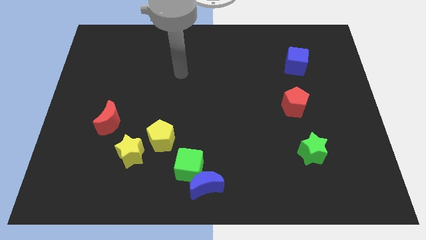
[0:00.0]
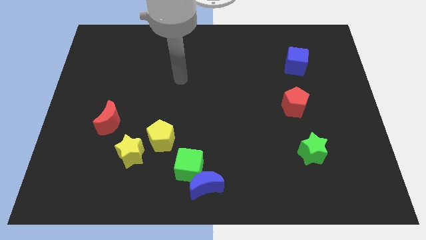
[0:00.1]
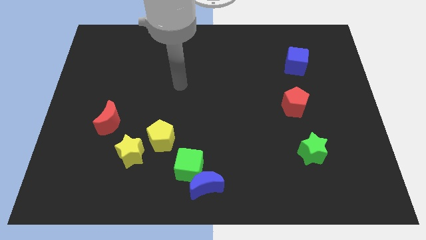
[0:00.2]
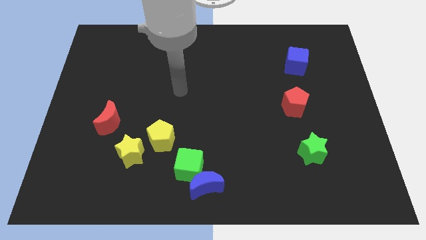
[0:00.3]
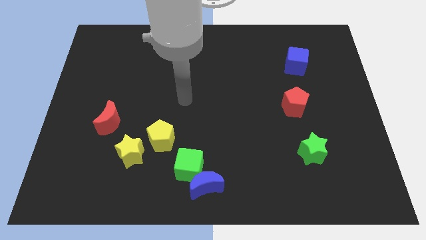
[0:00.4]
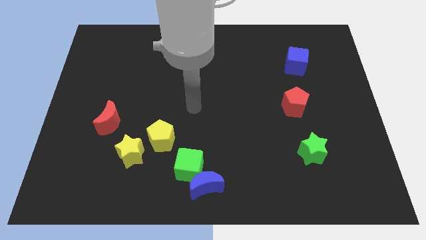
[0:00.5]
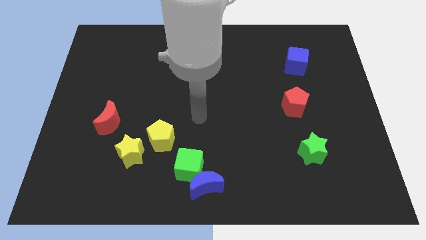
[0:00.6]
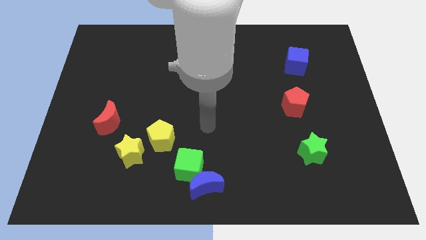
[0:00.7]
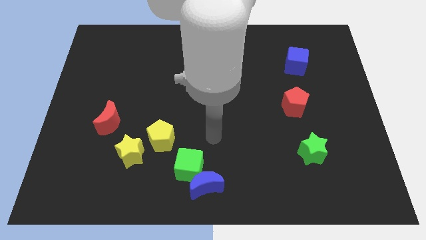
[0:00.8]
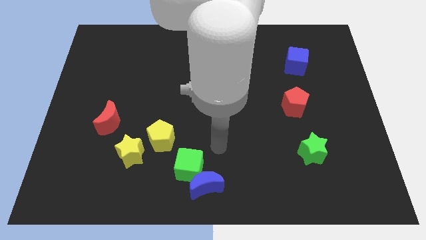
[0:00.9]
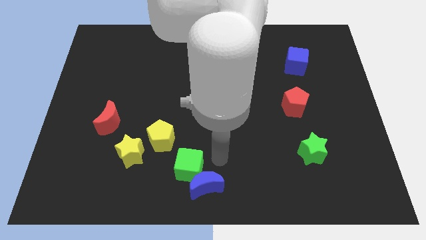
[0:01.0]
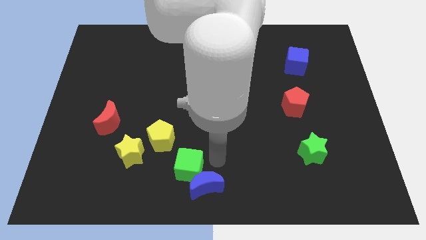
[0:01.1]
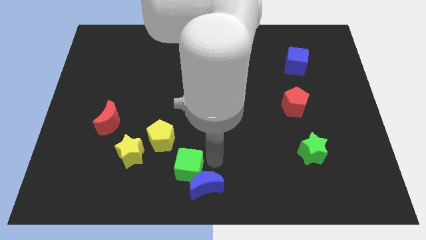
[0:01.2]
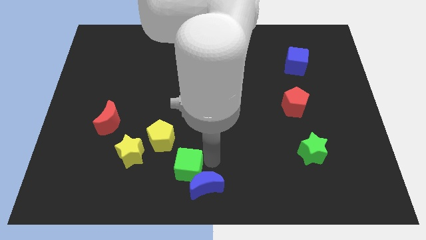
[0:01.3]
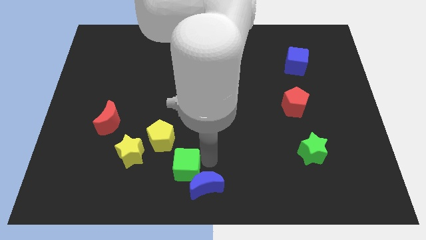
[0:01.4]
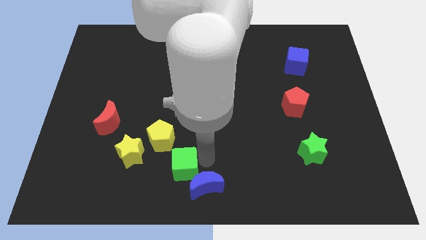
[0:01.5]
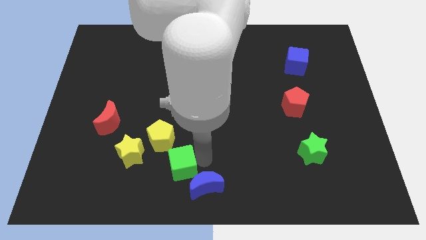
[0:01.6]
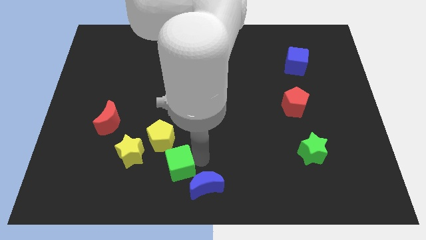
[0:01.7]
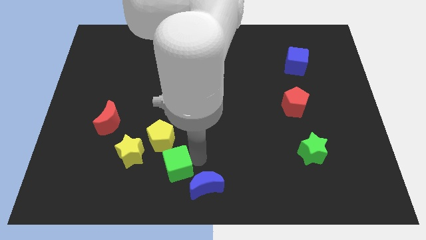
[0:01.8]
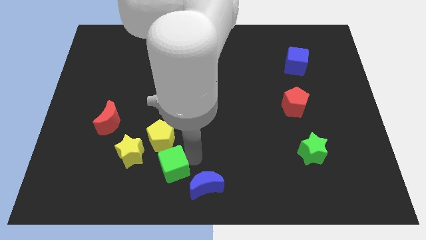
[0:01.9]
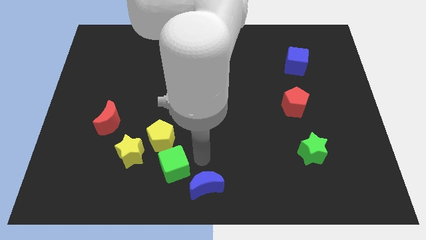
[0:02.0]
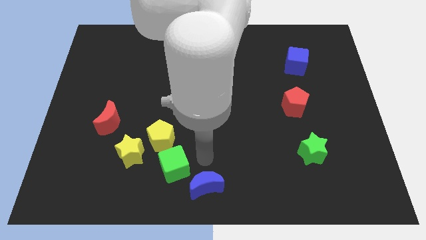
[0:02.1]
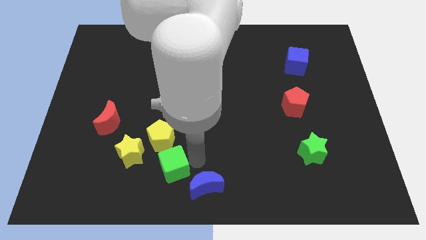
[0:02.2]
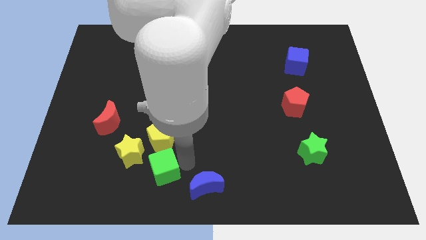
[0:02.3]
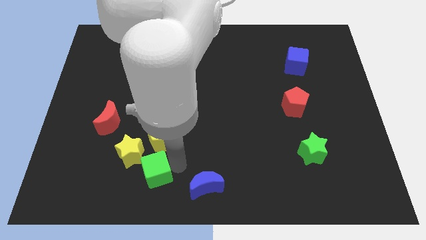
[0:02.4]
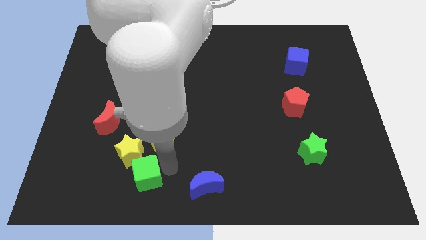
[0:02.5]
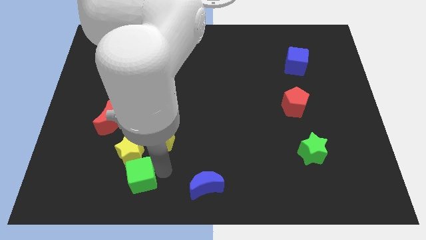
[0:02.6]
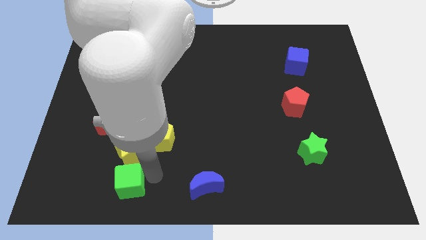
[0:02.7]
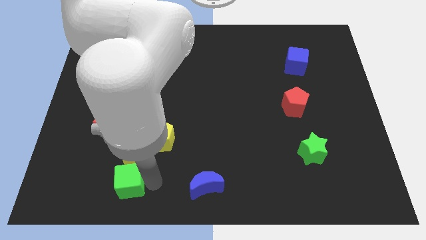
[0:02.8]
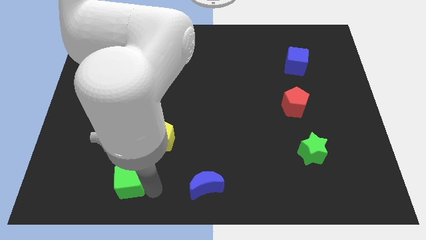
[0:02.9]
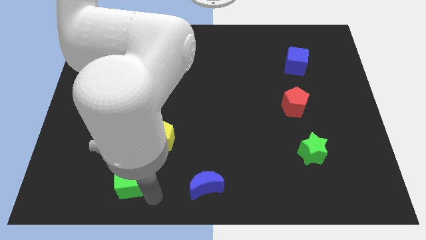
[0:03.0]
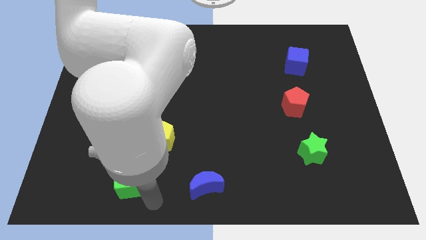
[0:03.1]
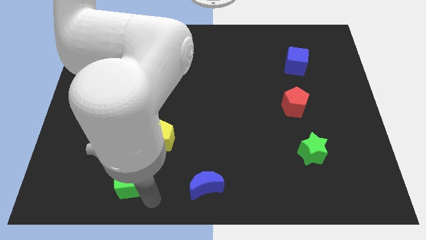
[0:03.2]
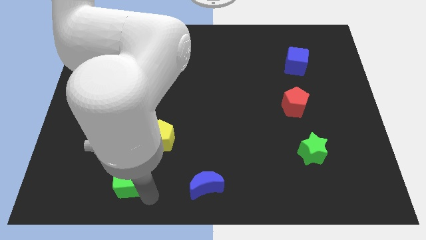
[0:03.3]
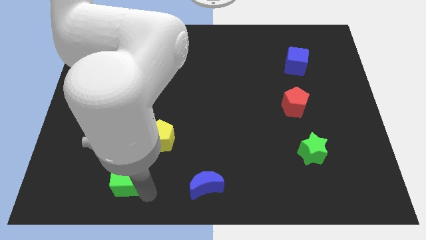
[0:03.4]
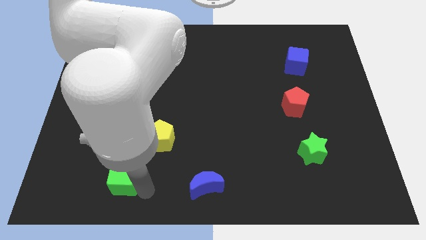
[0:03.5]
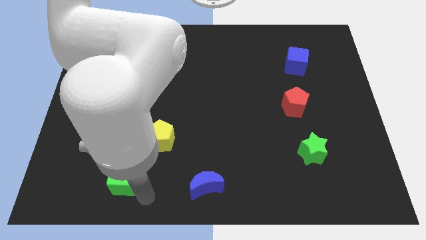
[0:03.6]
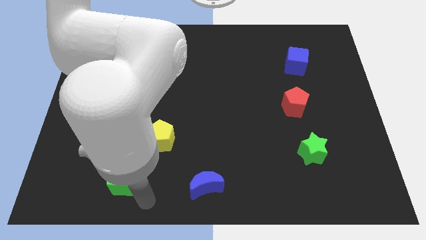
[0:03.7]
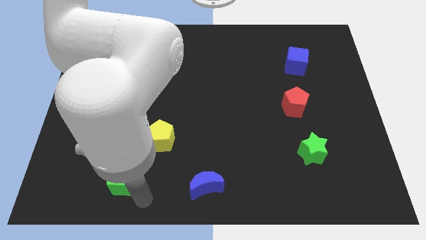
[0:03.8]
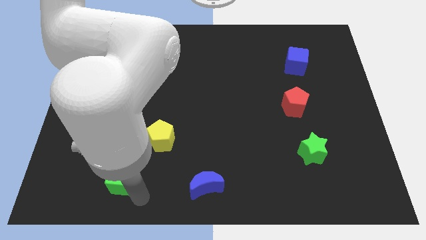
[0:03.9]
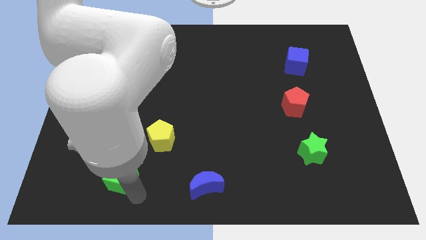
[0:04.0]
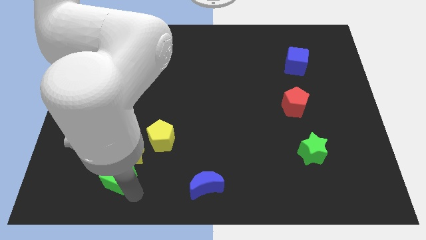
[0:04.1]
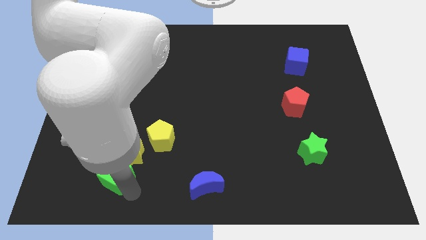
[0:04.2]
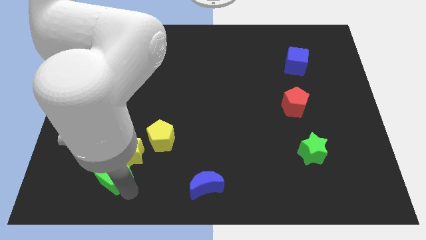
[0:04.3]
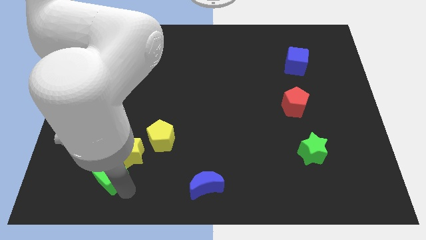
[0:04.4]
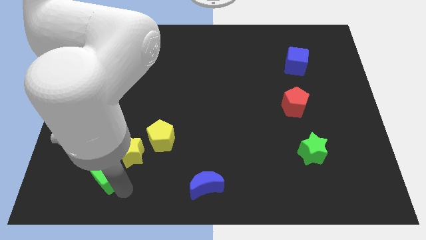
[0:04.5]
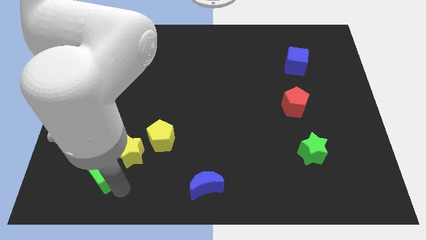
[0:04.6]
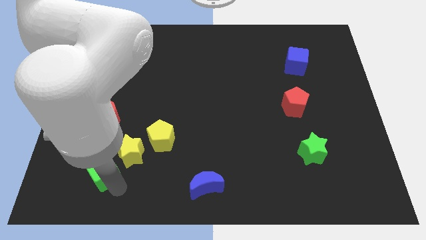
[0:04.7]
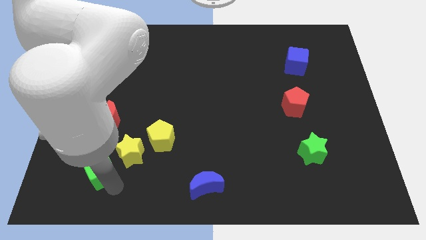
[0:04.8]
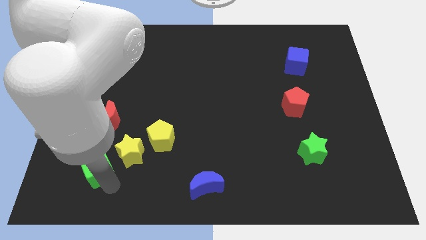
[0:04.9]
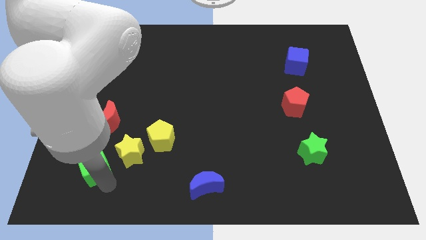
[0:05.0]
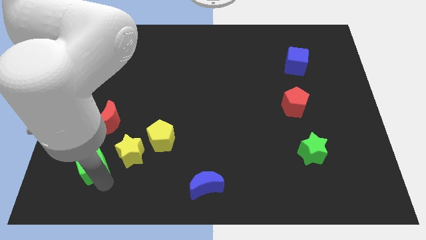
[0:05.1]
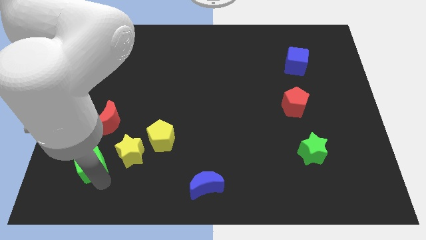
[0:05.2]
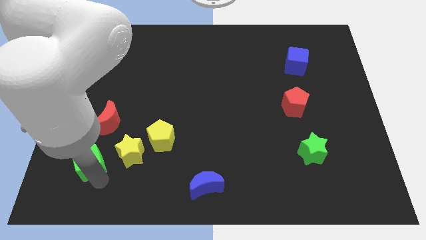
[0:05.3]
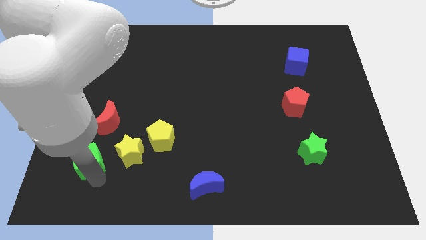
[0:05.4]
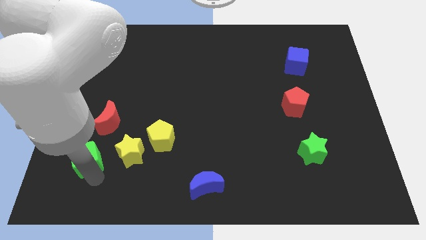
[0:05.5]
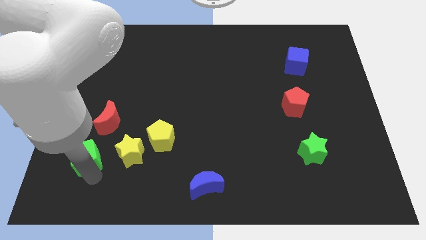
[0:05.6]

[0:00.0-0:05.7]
move the green cube to the bottom left of the red moon

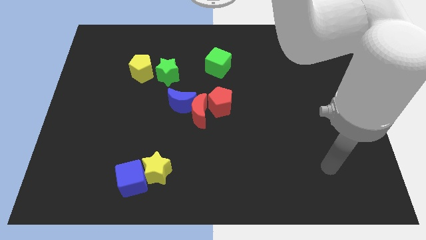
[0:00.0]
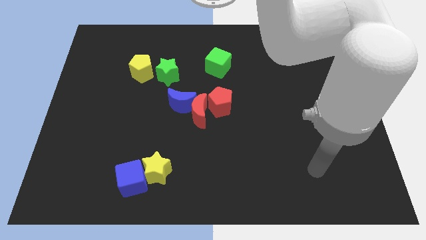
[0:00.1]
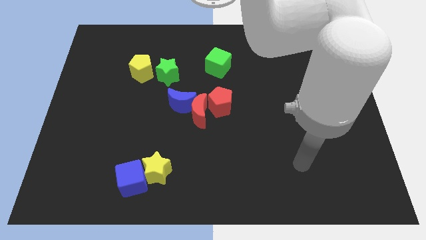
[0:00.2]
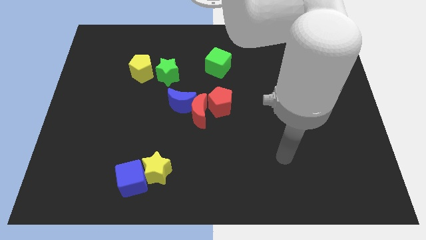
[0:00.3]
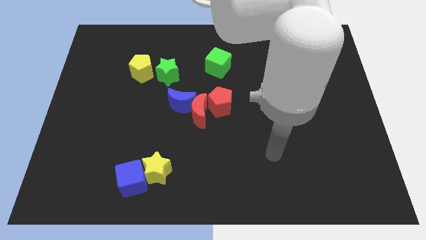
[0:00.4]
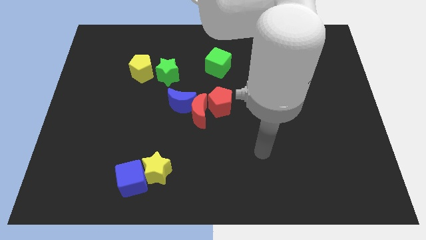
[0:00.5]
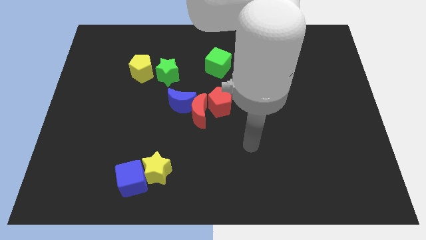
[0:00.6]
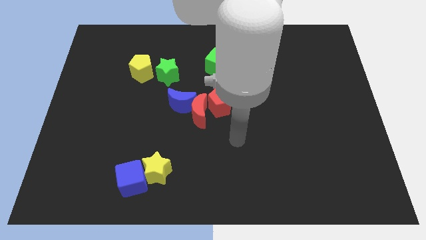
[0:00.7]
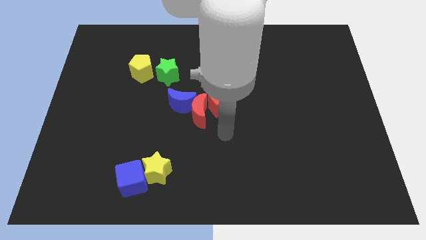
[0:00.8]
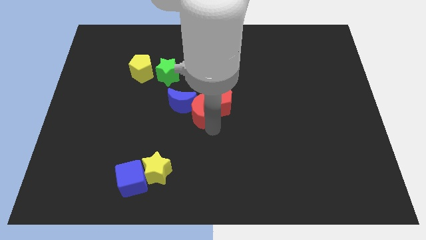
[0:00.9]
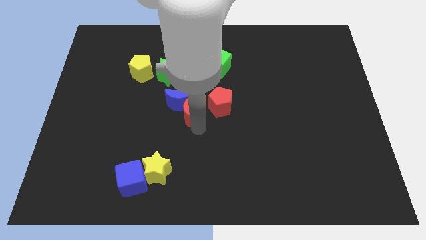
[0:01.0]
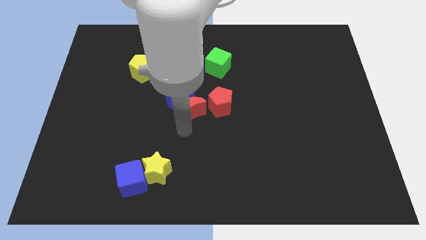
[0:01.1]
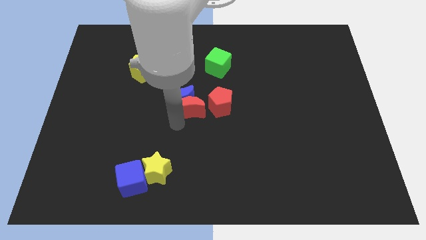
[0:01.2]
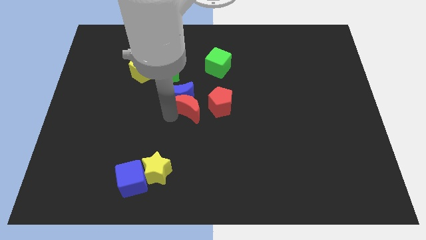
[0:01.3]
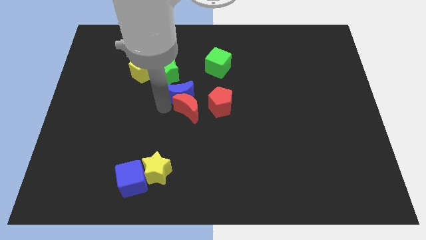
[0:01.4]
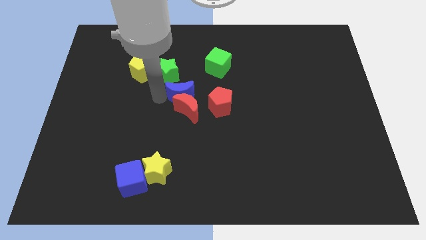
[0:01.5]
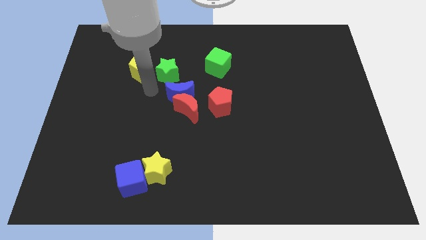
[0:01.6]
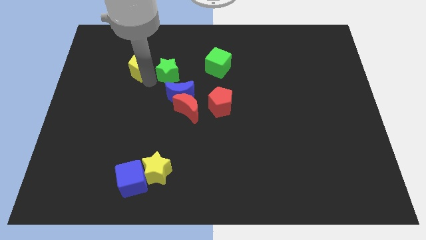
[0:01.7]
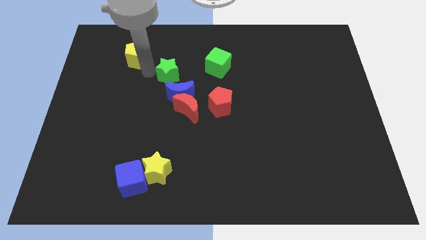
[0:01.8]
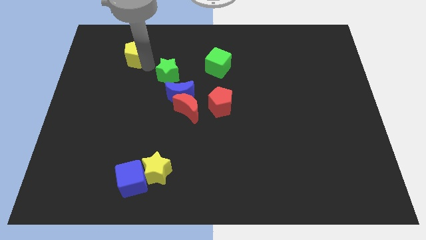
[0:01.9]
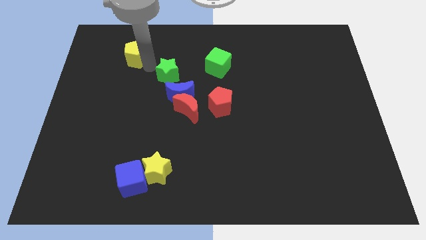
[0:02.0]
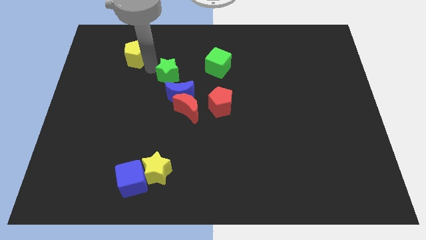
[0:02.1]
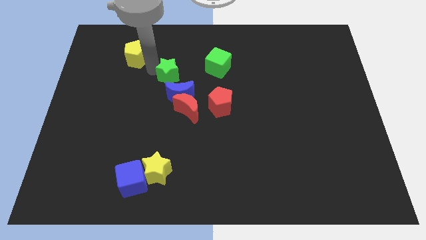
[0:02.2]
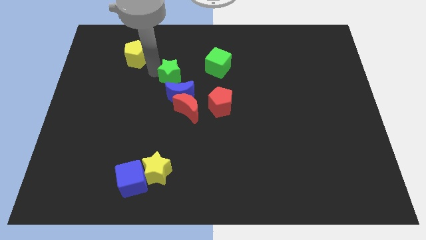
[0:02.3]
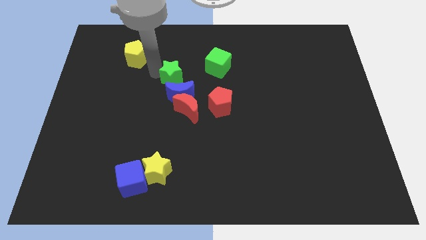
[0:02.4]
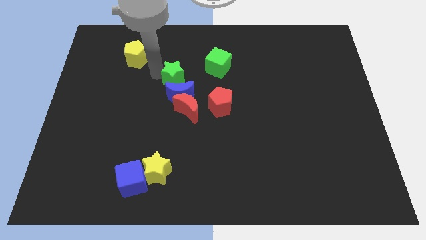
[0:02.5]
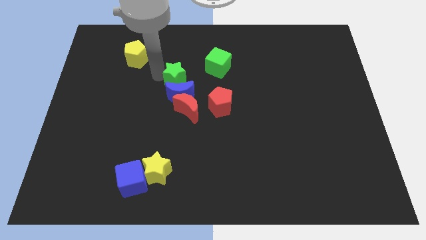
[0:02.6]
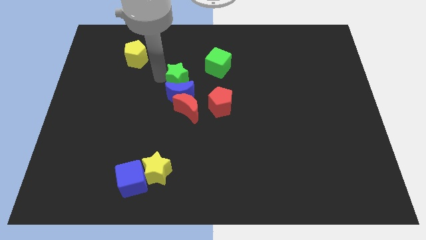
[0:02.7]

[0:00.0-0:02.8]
move the green star to the top right of the blue moon
